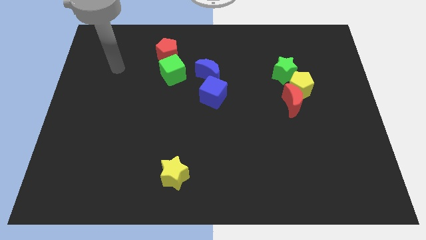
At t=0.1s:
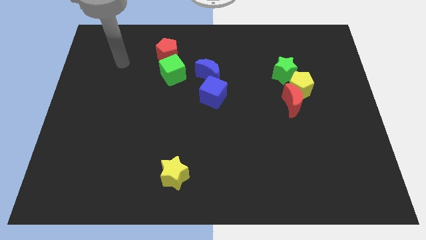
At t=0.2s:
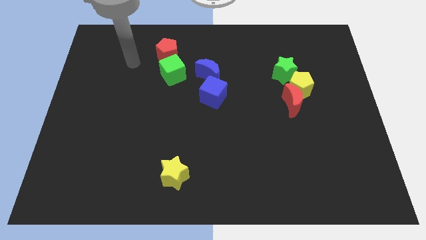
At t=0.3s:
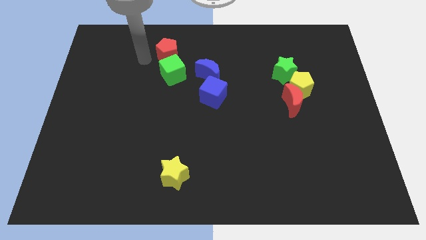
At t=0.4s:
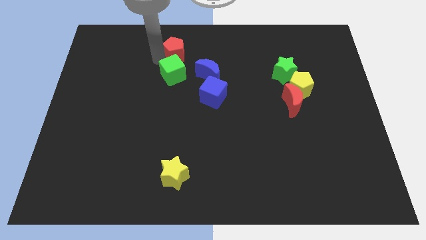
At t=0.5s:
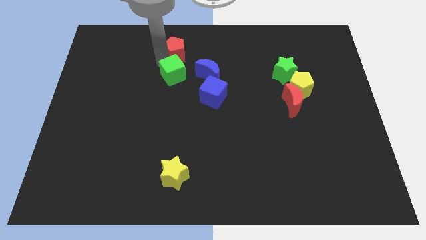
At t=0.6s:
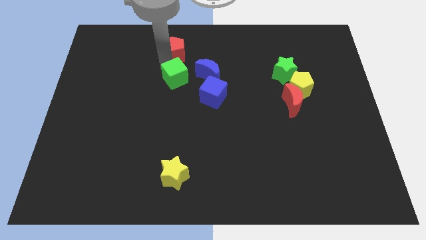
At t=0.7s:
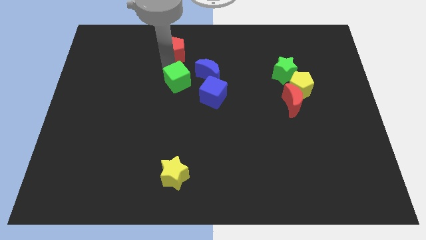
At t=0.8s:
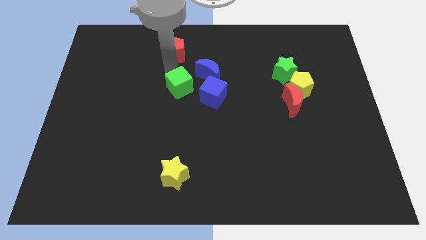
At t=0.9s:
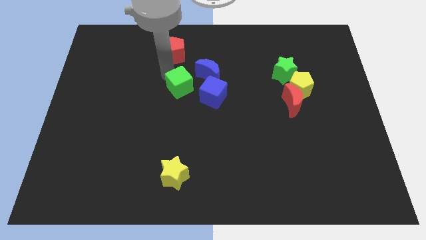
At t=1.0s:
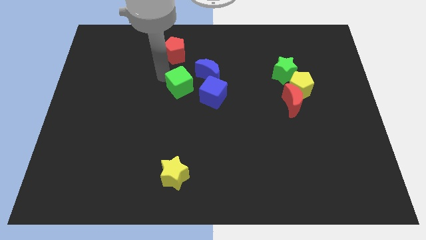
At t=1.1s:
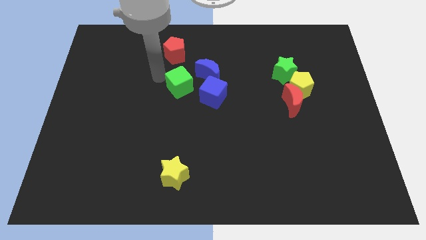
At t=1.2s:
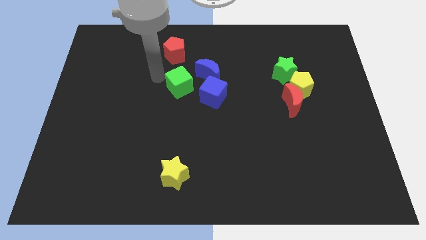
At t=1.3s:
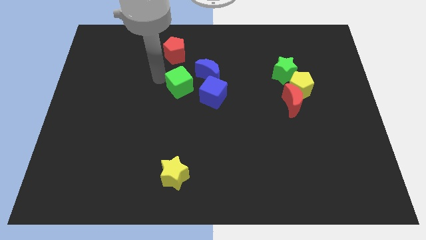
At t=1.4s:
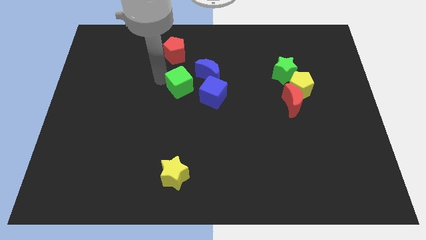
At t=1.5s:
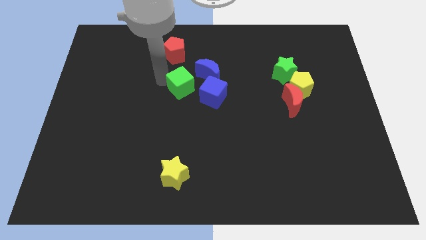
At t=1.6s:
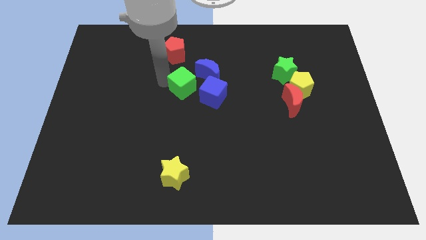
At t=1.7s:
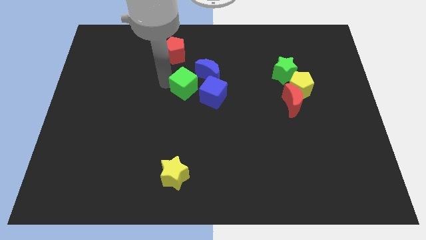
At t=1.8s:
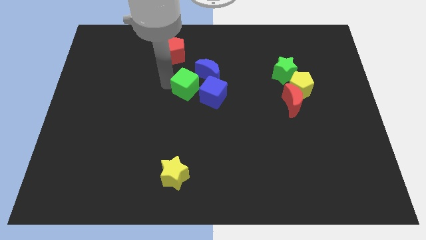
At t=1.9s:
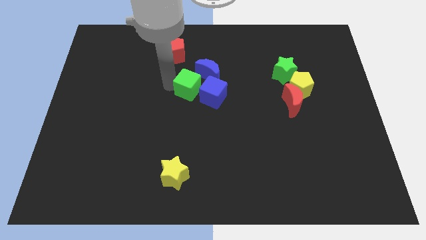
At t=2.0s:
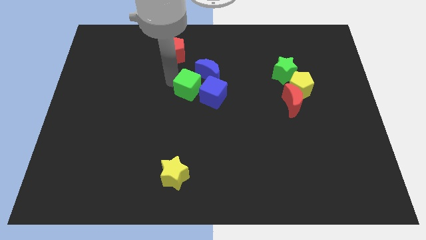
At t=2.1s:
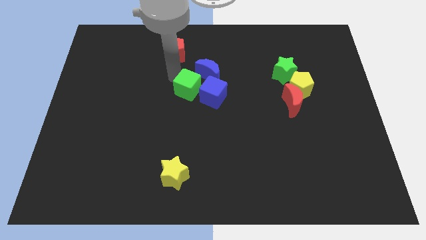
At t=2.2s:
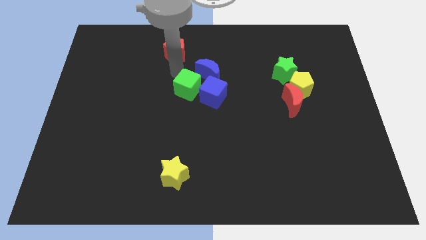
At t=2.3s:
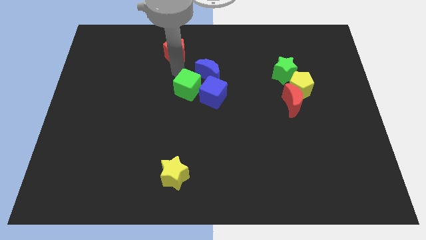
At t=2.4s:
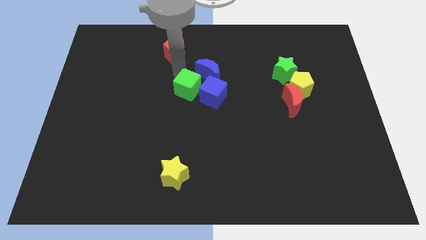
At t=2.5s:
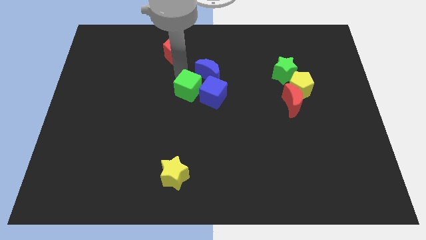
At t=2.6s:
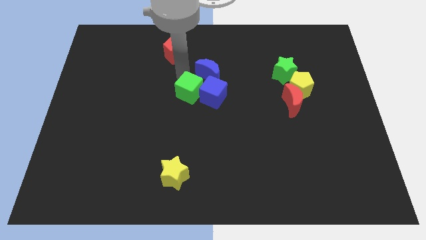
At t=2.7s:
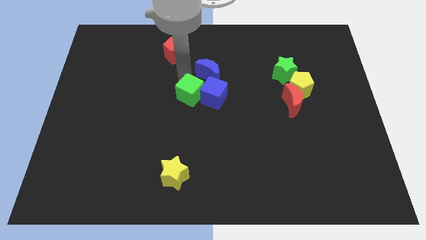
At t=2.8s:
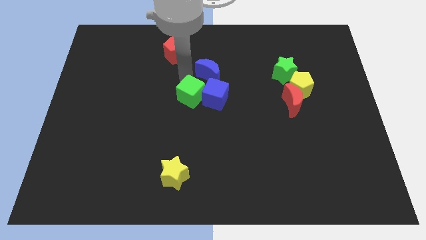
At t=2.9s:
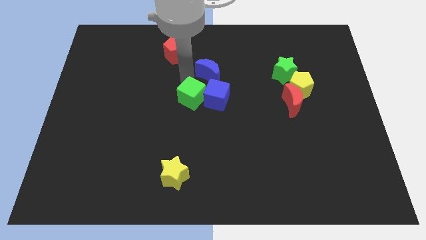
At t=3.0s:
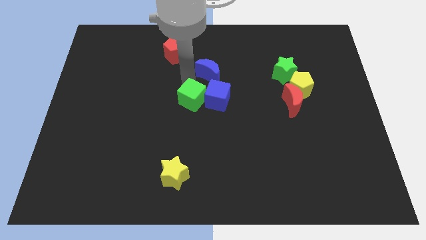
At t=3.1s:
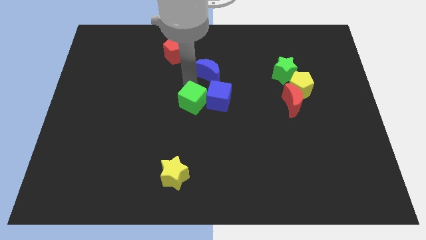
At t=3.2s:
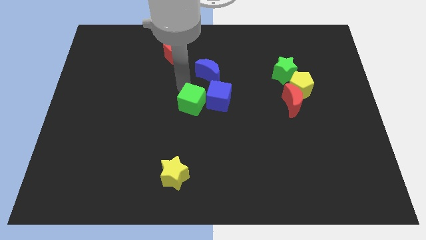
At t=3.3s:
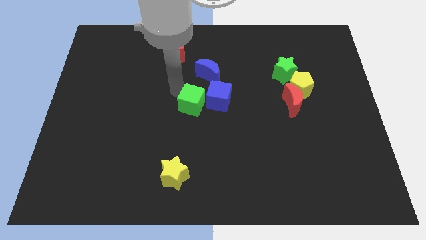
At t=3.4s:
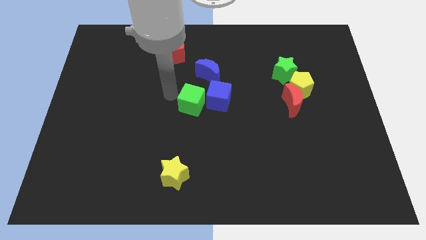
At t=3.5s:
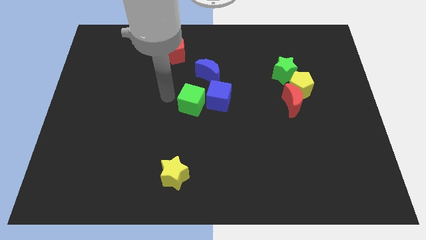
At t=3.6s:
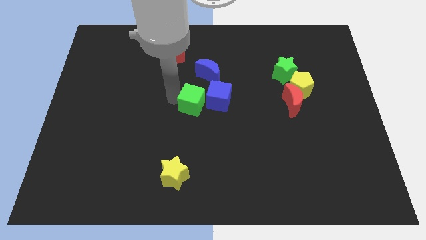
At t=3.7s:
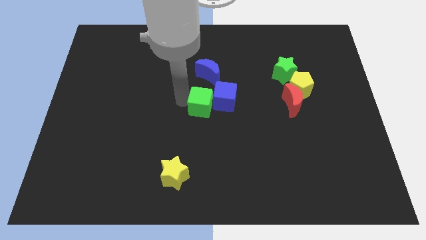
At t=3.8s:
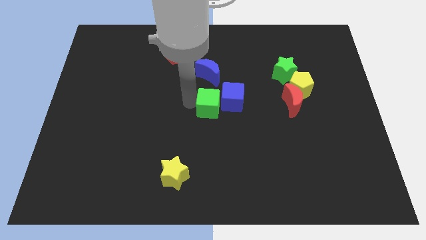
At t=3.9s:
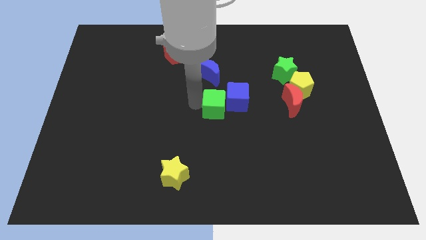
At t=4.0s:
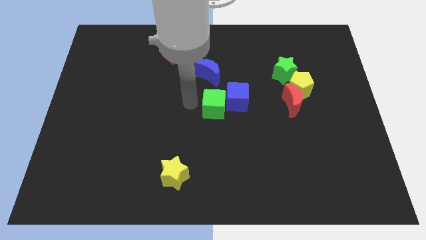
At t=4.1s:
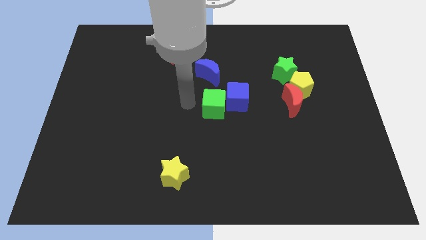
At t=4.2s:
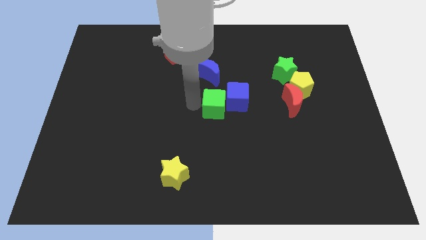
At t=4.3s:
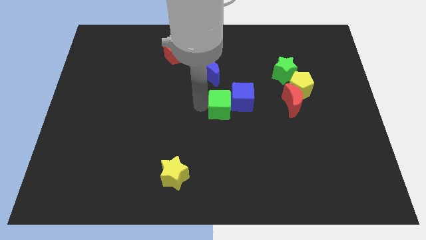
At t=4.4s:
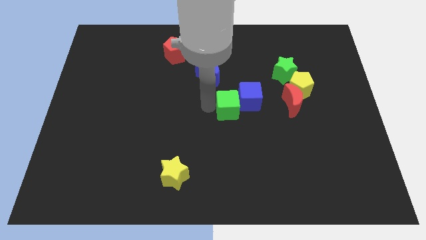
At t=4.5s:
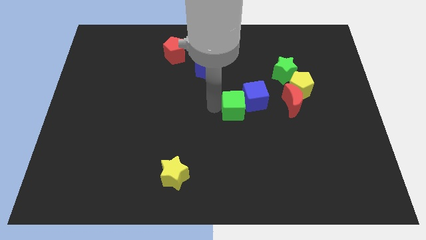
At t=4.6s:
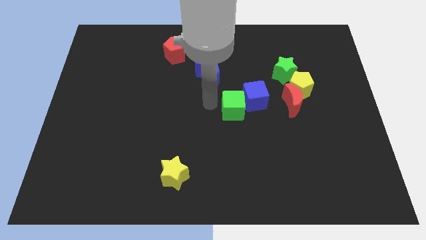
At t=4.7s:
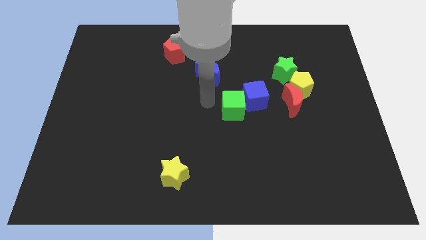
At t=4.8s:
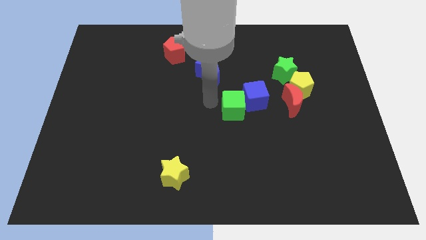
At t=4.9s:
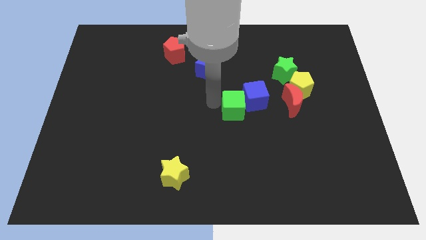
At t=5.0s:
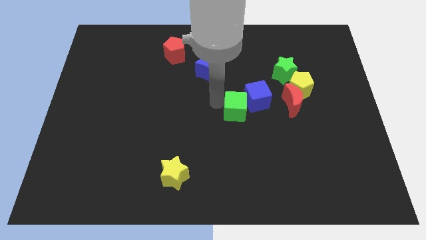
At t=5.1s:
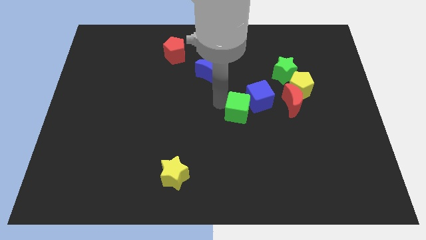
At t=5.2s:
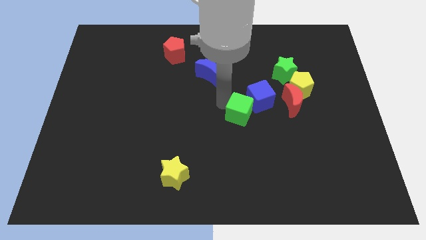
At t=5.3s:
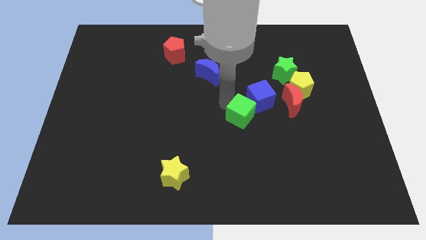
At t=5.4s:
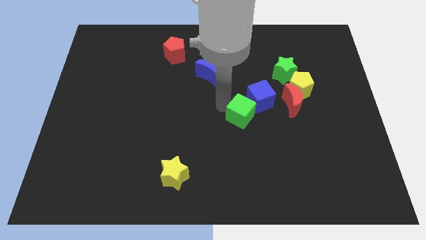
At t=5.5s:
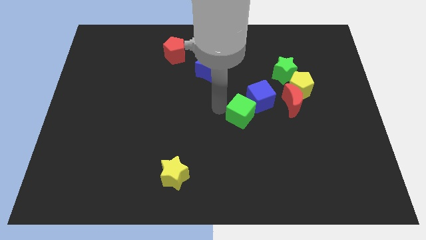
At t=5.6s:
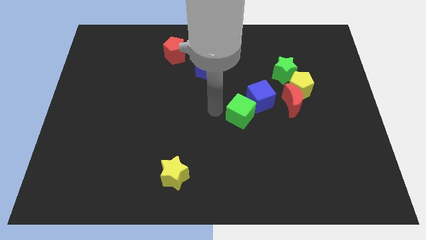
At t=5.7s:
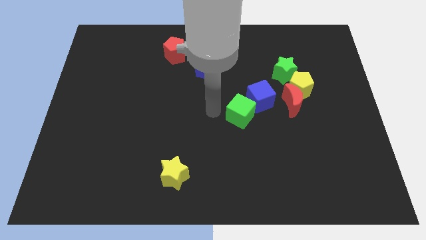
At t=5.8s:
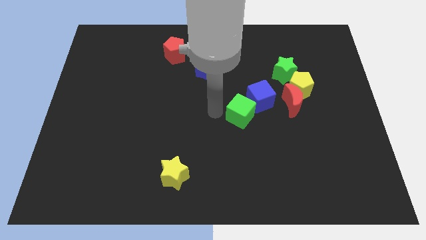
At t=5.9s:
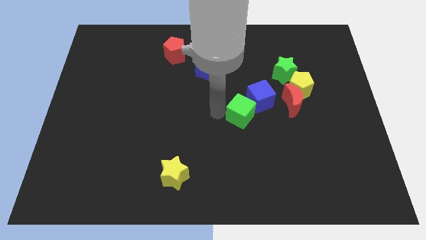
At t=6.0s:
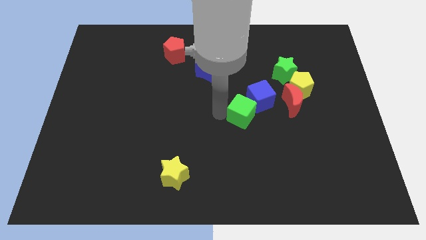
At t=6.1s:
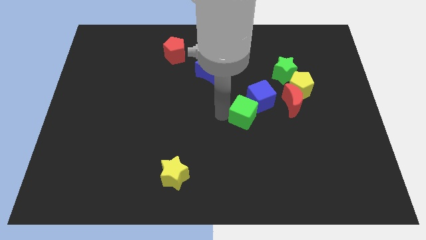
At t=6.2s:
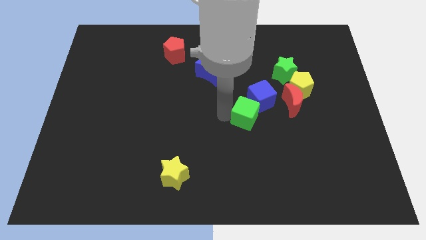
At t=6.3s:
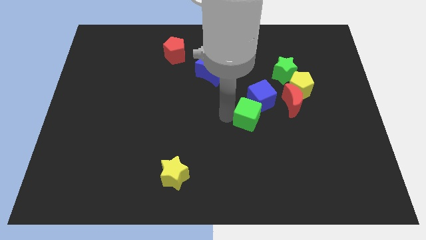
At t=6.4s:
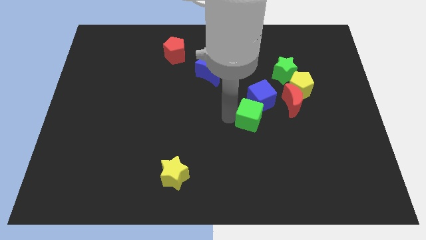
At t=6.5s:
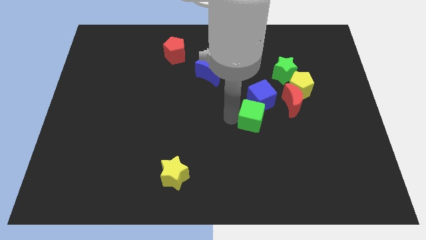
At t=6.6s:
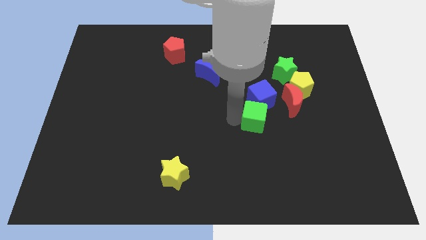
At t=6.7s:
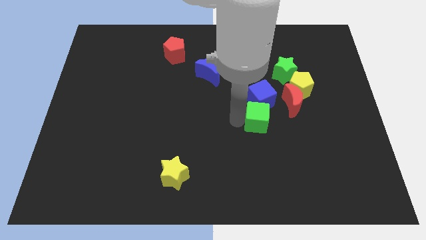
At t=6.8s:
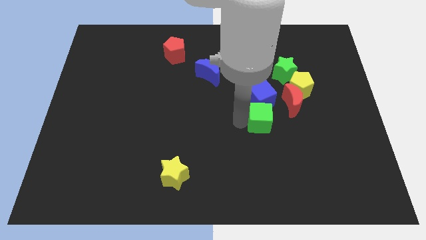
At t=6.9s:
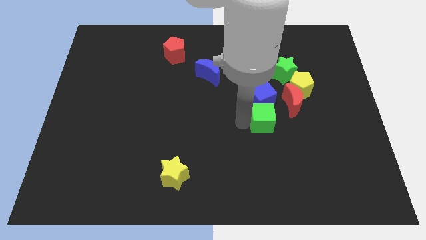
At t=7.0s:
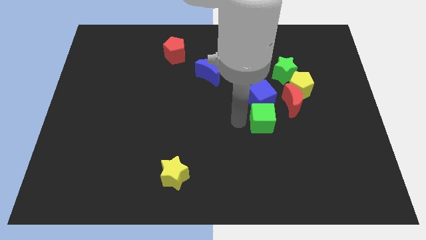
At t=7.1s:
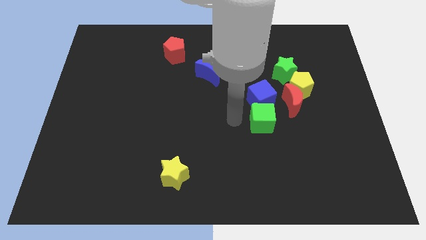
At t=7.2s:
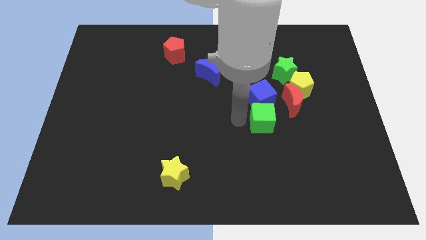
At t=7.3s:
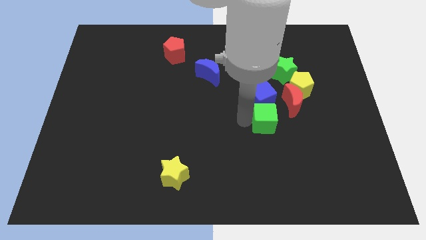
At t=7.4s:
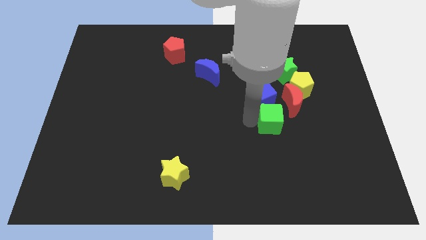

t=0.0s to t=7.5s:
put the green cube to the bottom left of the yellow pentagon

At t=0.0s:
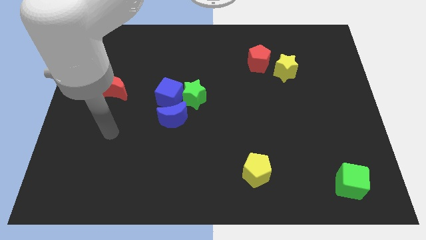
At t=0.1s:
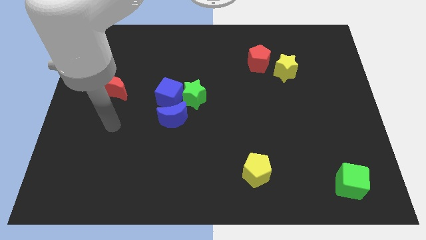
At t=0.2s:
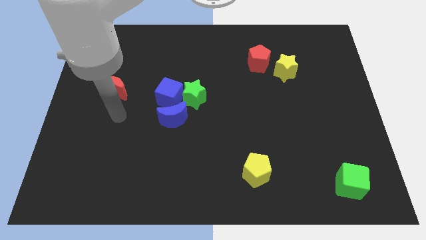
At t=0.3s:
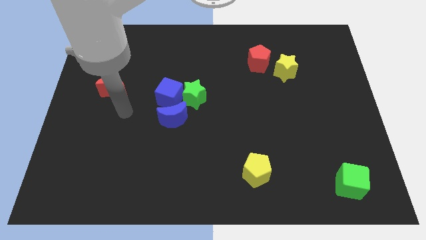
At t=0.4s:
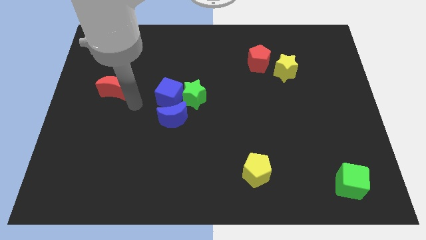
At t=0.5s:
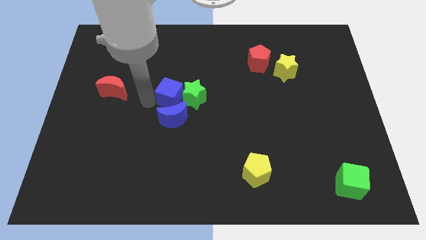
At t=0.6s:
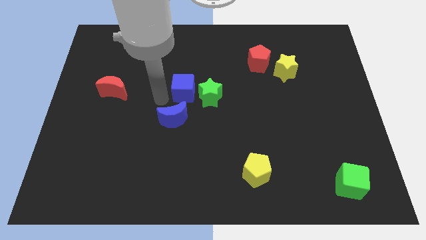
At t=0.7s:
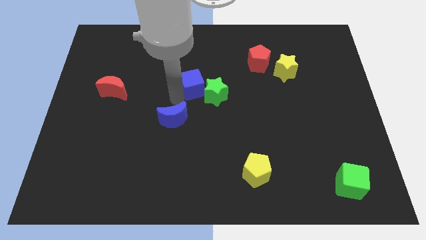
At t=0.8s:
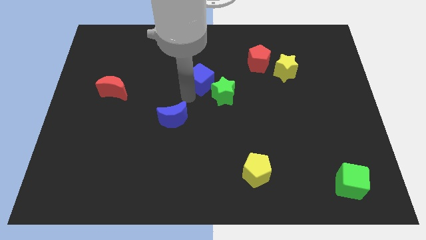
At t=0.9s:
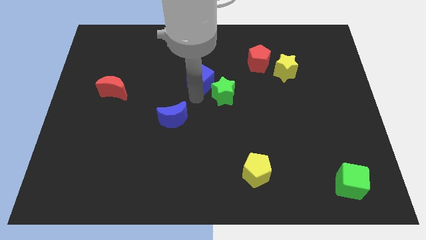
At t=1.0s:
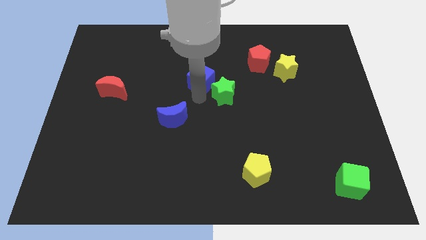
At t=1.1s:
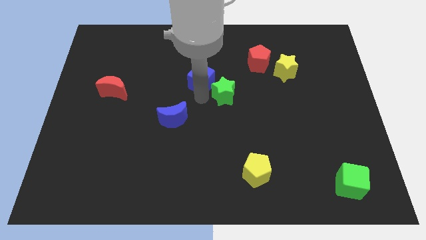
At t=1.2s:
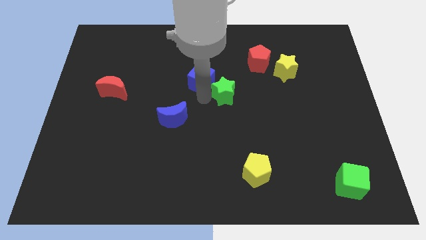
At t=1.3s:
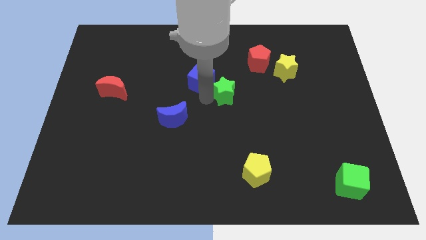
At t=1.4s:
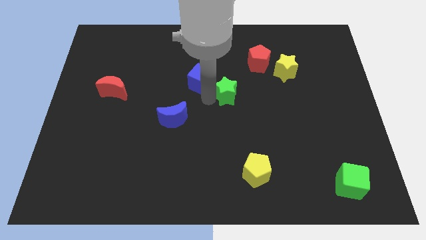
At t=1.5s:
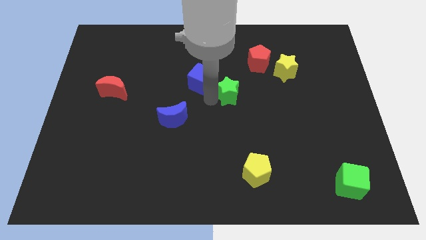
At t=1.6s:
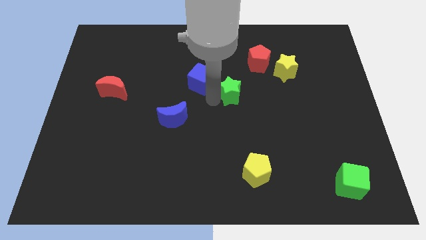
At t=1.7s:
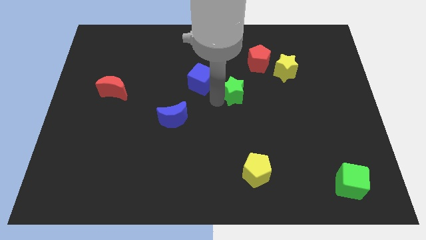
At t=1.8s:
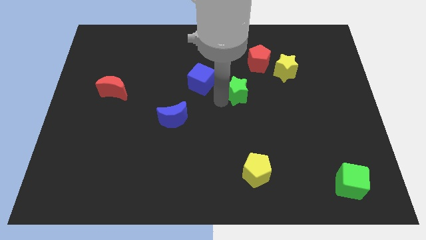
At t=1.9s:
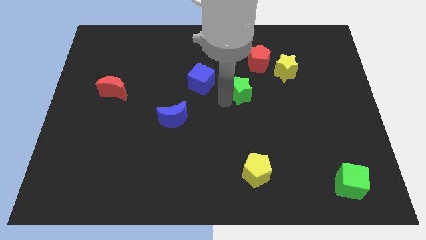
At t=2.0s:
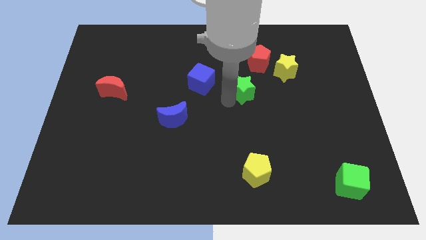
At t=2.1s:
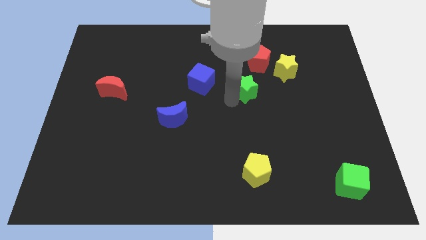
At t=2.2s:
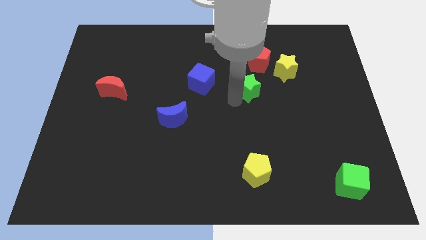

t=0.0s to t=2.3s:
slide the green star to the bottom left of the yellow star
